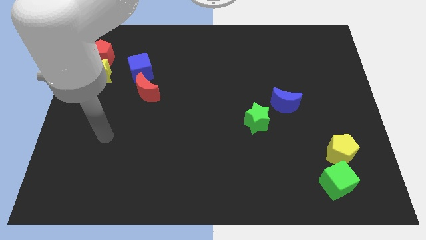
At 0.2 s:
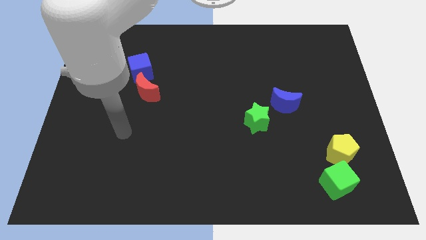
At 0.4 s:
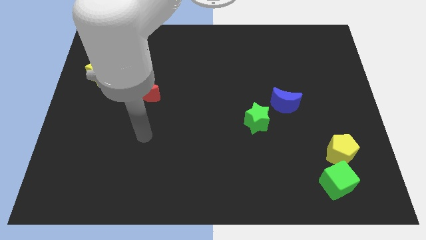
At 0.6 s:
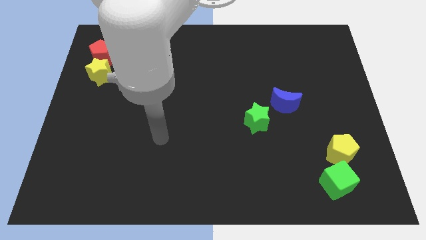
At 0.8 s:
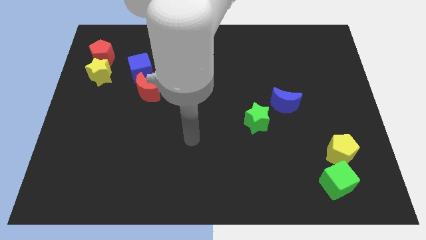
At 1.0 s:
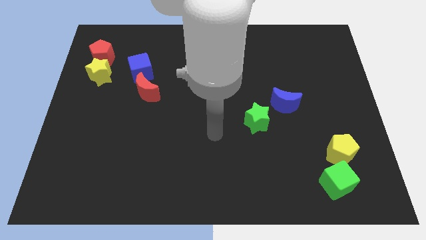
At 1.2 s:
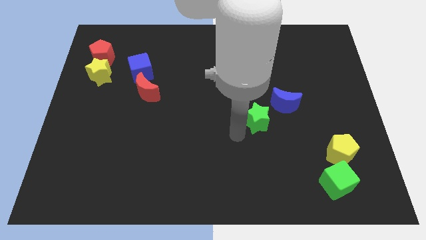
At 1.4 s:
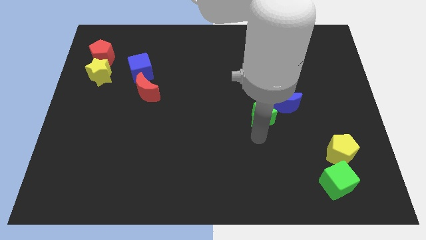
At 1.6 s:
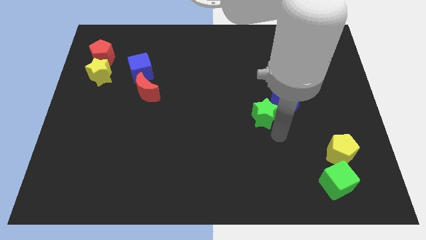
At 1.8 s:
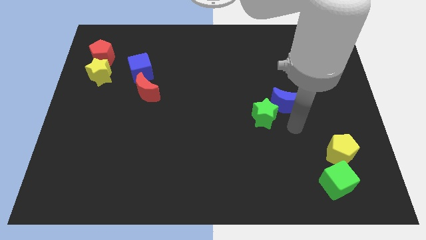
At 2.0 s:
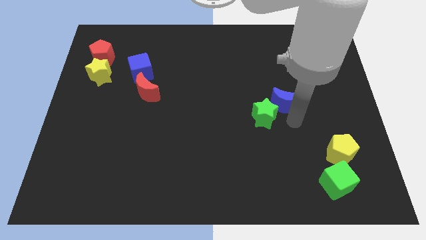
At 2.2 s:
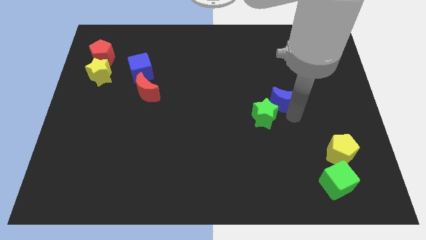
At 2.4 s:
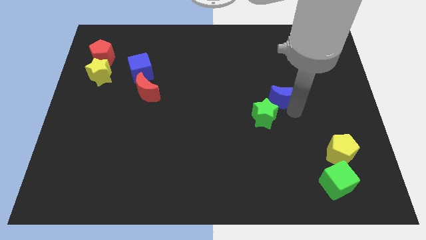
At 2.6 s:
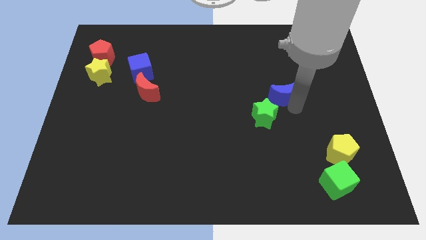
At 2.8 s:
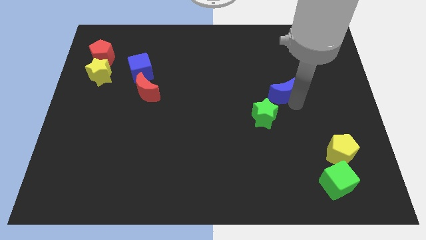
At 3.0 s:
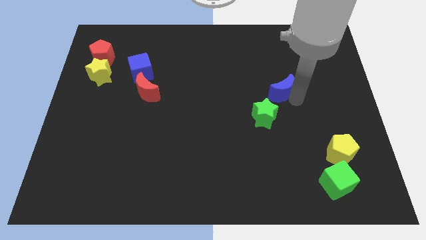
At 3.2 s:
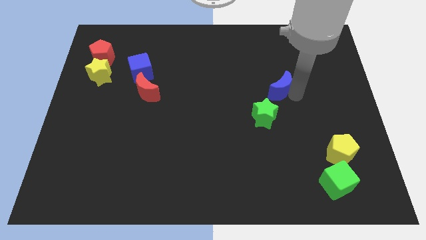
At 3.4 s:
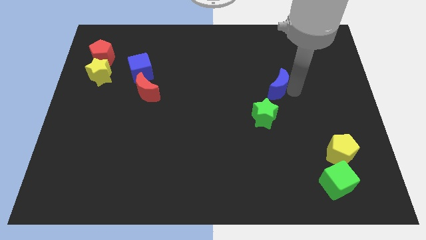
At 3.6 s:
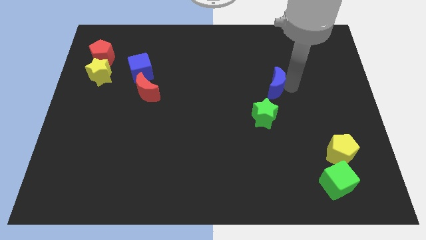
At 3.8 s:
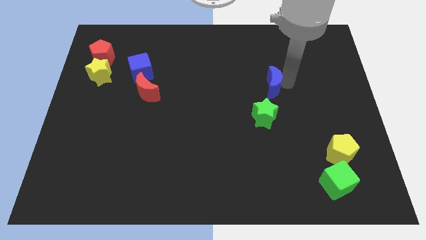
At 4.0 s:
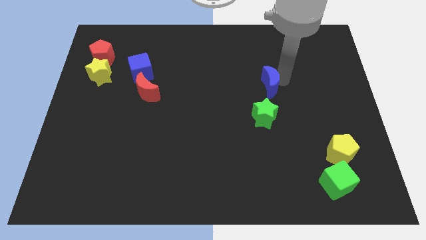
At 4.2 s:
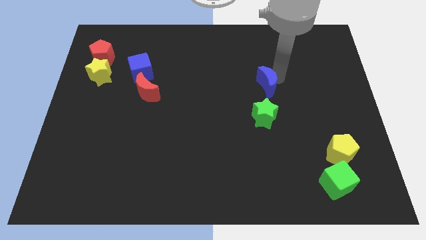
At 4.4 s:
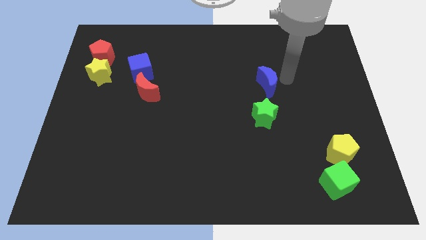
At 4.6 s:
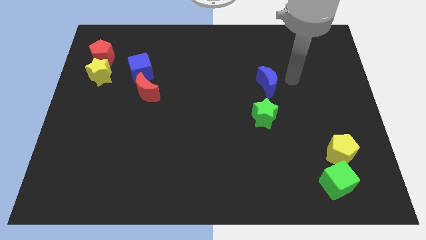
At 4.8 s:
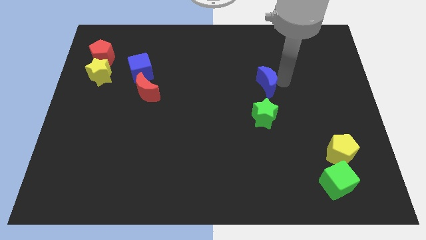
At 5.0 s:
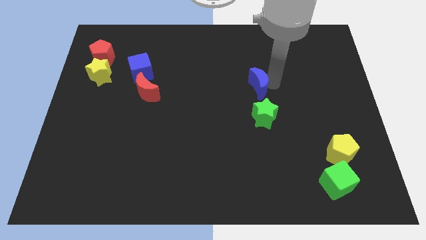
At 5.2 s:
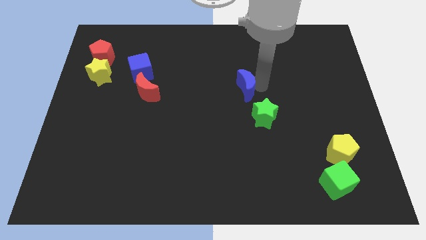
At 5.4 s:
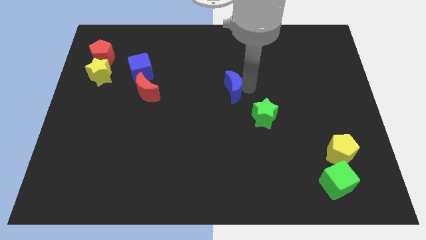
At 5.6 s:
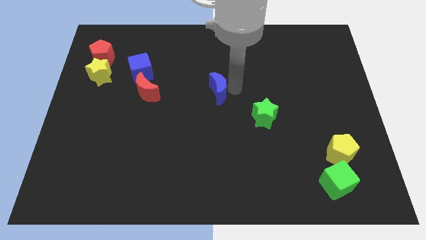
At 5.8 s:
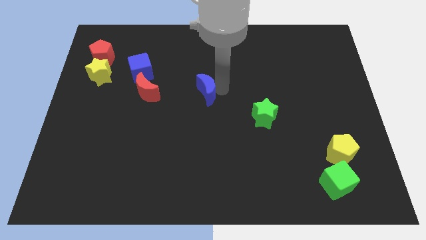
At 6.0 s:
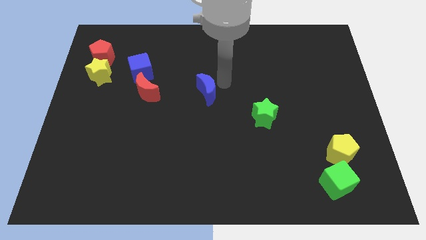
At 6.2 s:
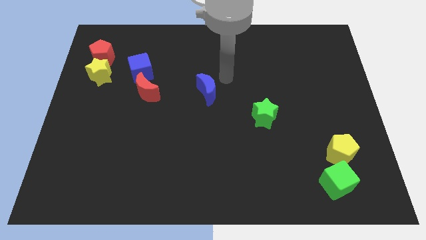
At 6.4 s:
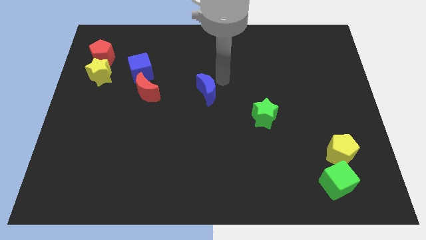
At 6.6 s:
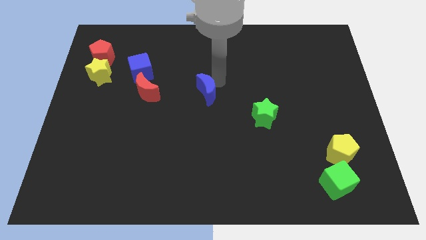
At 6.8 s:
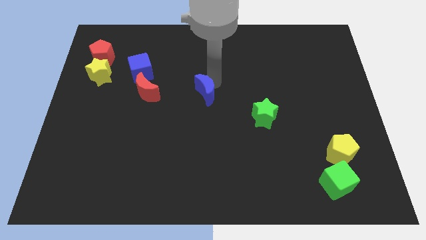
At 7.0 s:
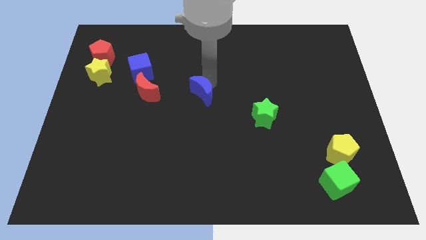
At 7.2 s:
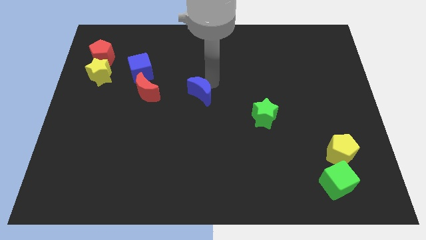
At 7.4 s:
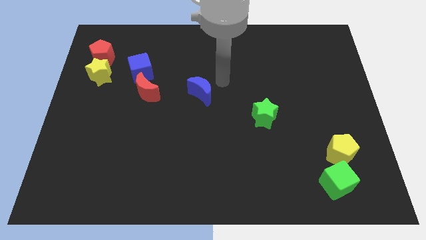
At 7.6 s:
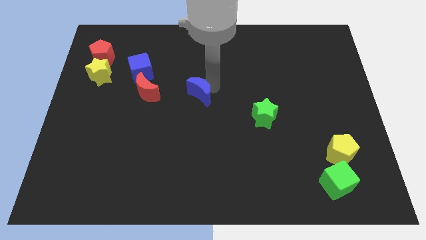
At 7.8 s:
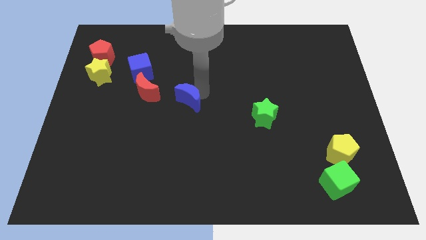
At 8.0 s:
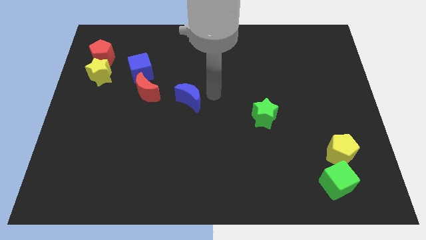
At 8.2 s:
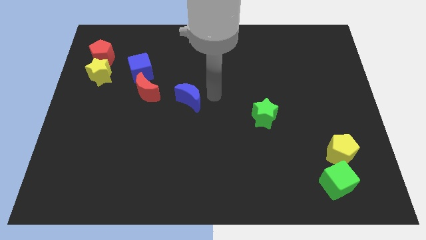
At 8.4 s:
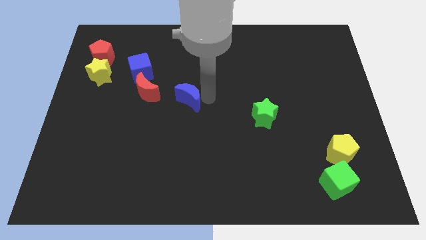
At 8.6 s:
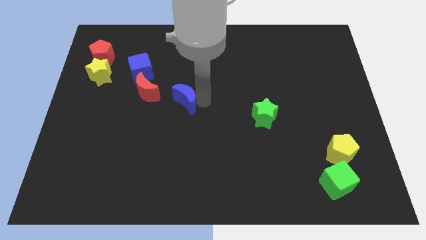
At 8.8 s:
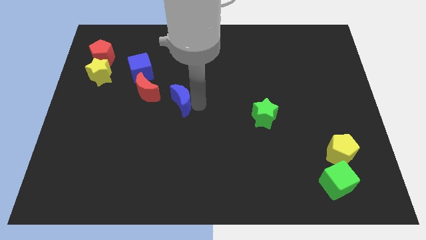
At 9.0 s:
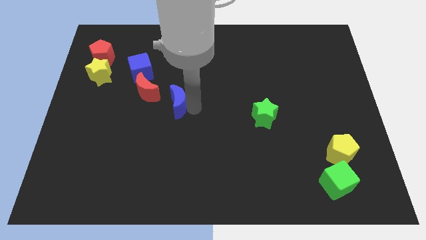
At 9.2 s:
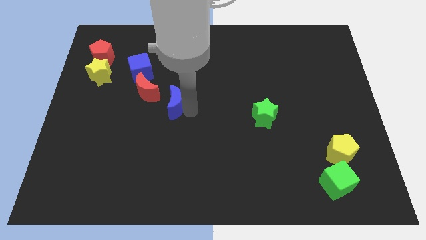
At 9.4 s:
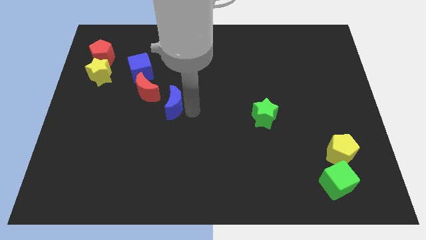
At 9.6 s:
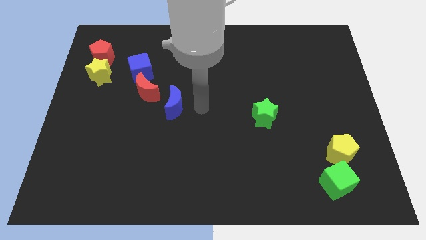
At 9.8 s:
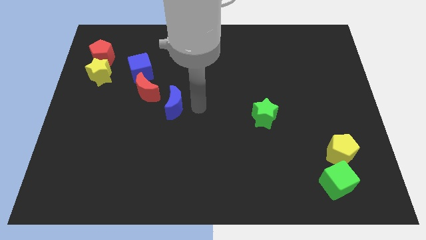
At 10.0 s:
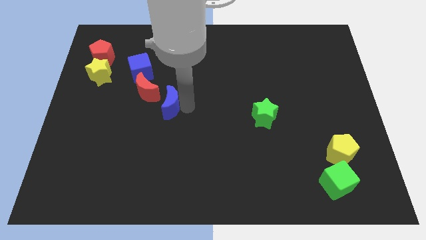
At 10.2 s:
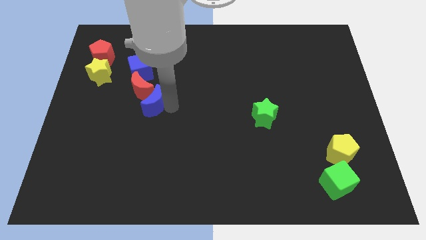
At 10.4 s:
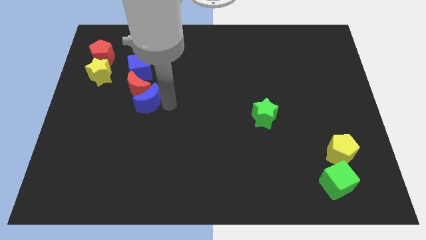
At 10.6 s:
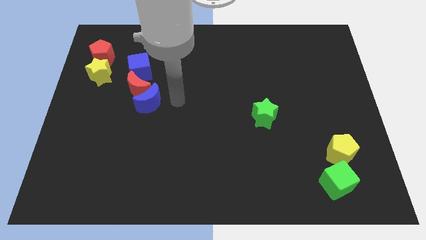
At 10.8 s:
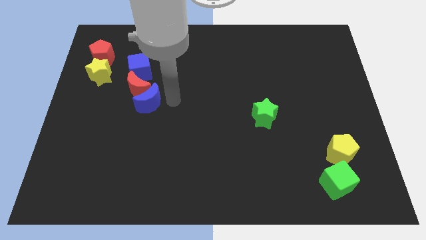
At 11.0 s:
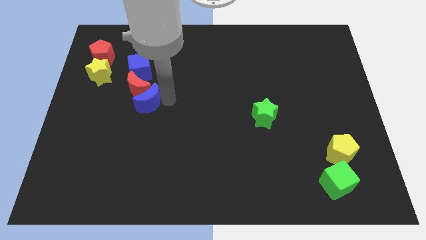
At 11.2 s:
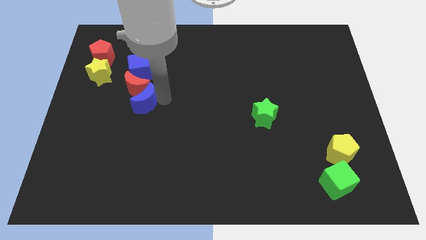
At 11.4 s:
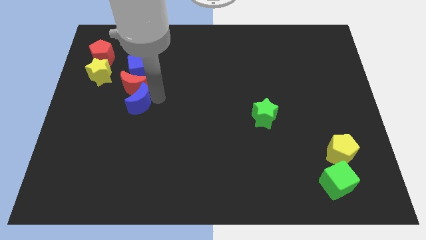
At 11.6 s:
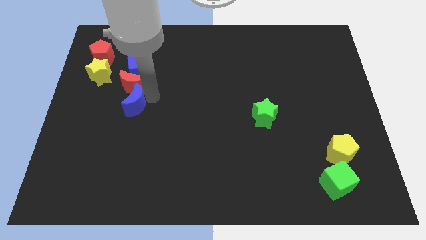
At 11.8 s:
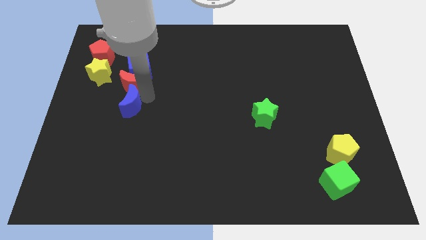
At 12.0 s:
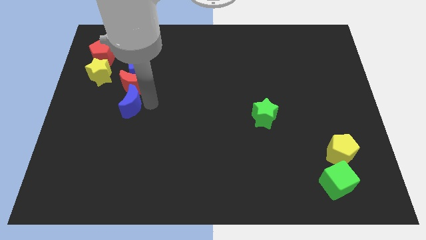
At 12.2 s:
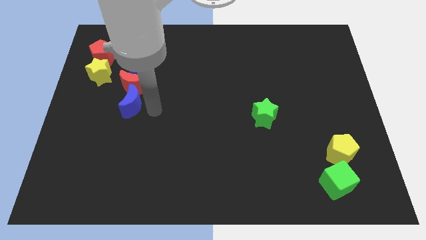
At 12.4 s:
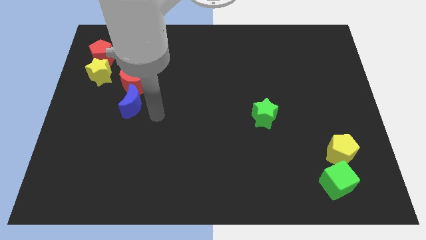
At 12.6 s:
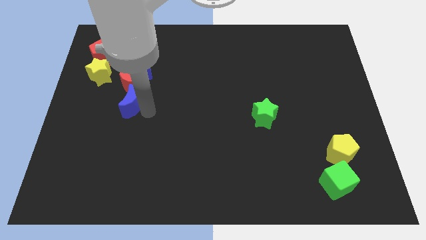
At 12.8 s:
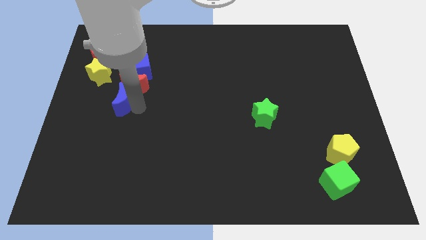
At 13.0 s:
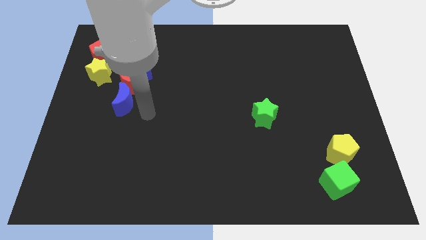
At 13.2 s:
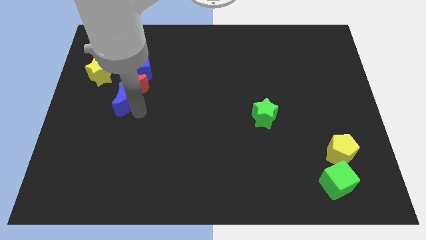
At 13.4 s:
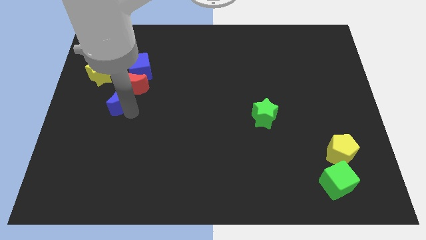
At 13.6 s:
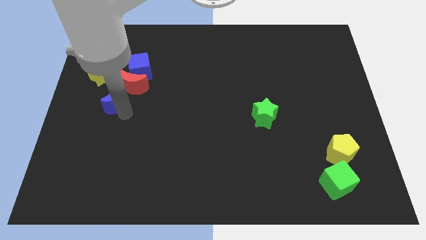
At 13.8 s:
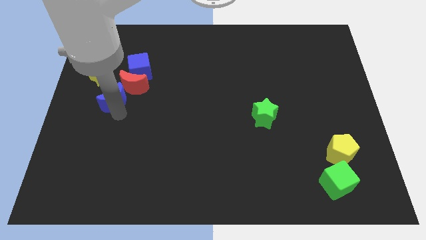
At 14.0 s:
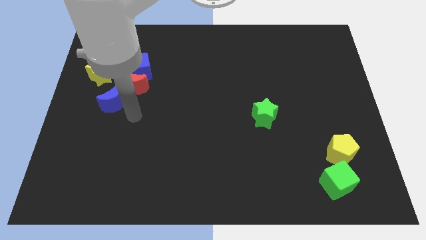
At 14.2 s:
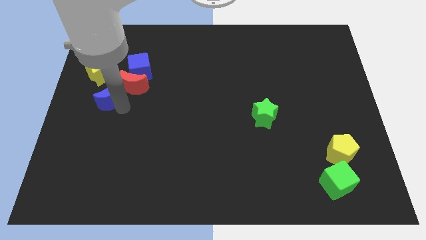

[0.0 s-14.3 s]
put the blue moon to the left side of the red moon
